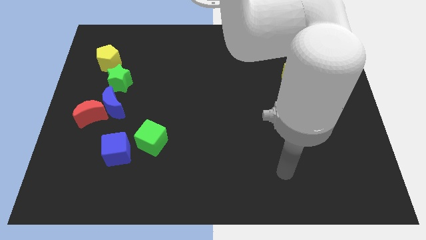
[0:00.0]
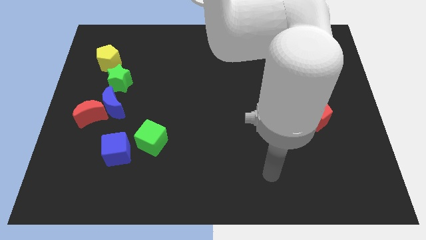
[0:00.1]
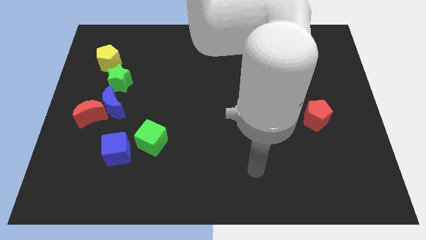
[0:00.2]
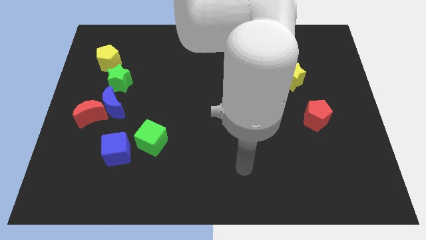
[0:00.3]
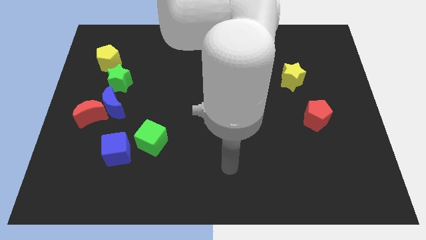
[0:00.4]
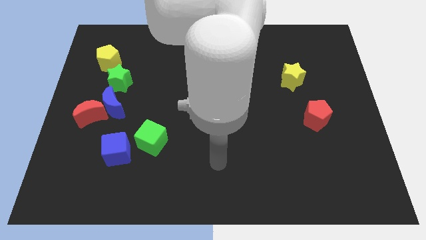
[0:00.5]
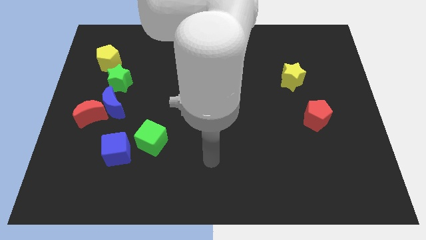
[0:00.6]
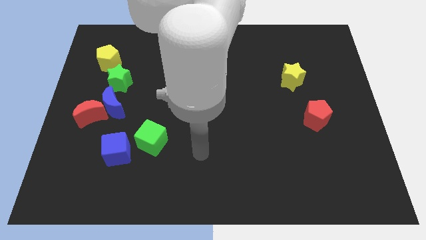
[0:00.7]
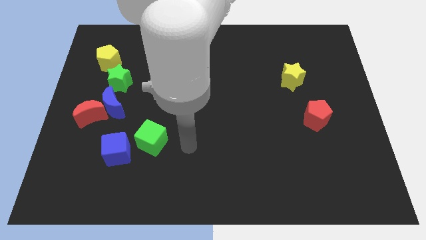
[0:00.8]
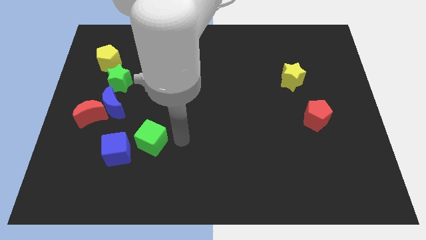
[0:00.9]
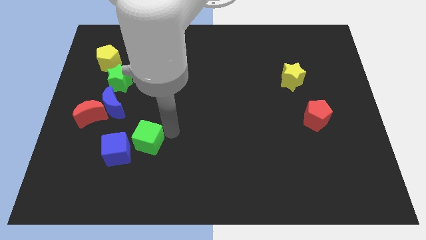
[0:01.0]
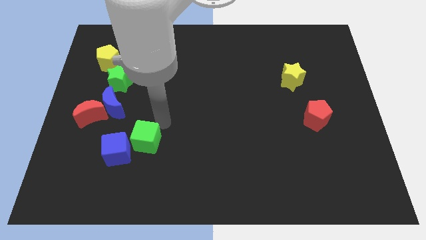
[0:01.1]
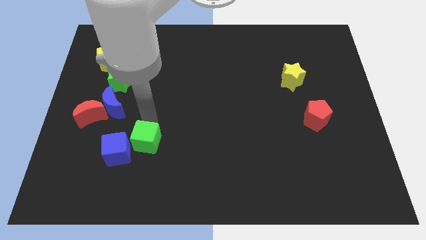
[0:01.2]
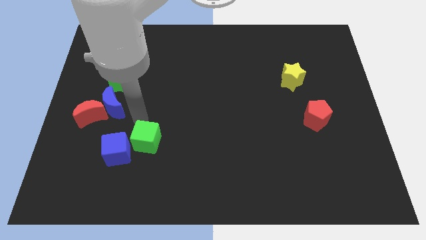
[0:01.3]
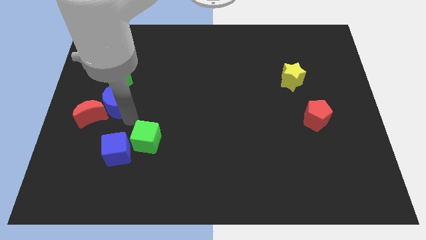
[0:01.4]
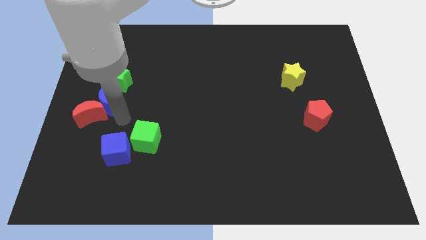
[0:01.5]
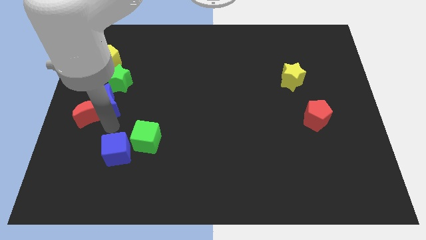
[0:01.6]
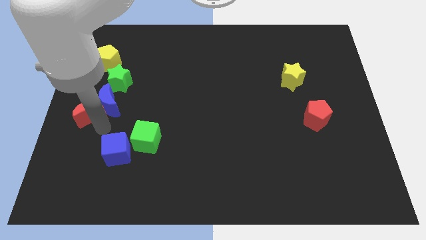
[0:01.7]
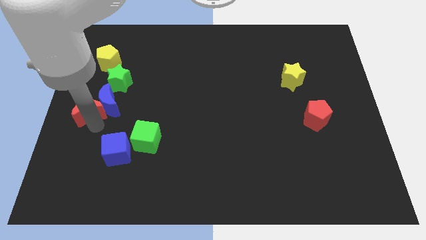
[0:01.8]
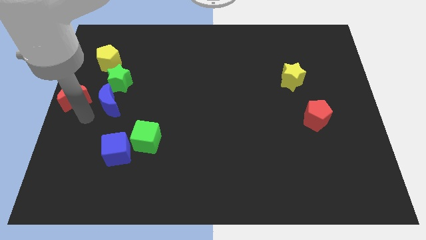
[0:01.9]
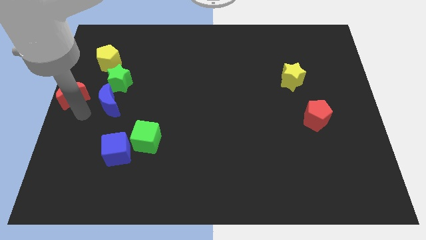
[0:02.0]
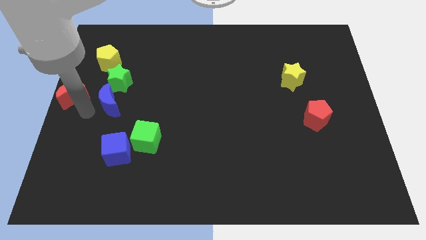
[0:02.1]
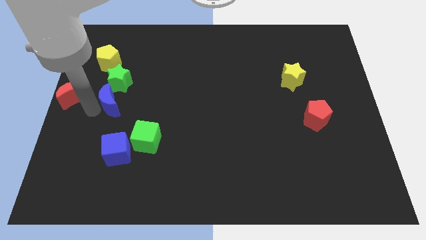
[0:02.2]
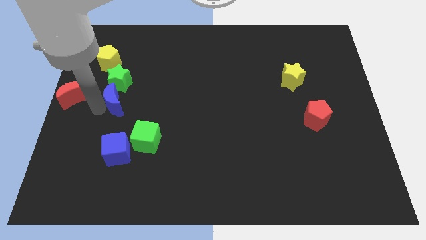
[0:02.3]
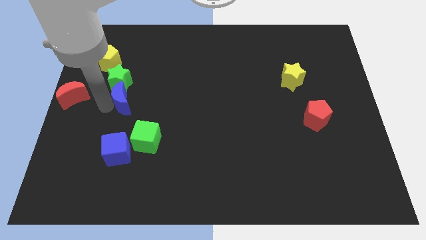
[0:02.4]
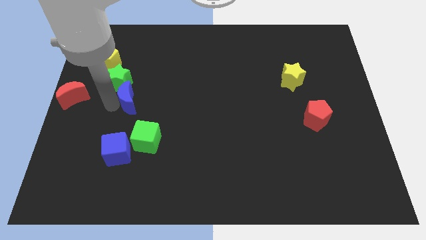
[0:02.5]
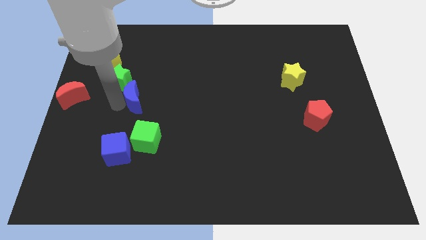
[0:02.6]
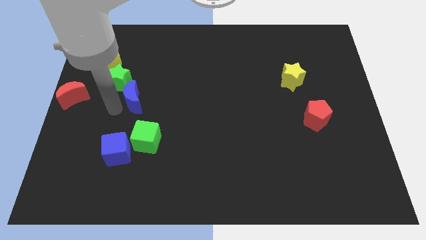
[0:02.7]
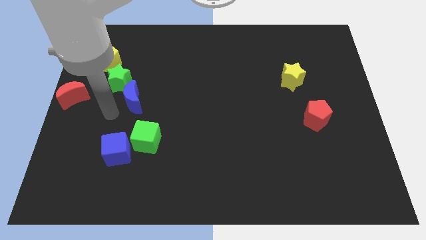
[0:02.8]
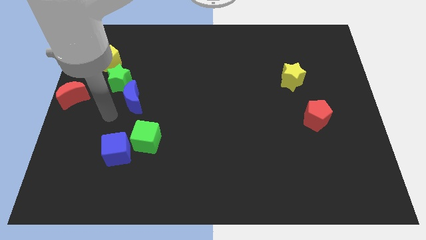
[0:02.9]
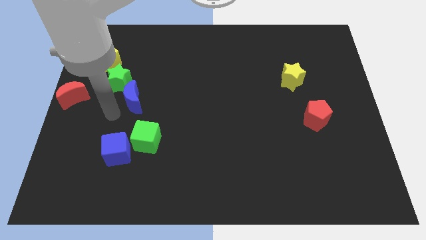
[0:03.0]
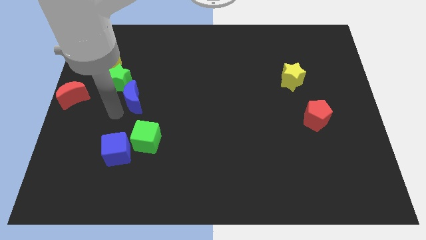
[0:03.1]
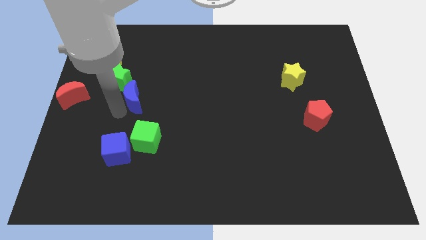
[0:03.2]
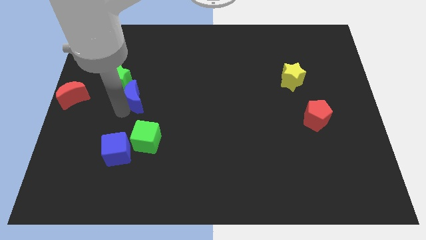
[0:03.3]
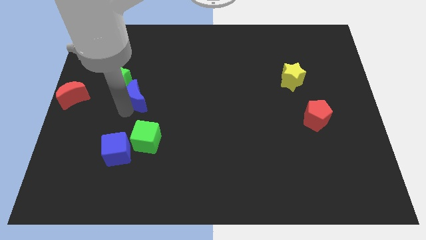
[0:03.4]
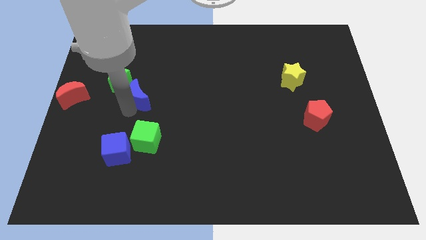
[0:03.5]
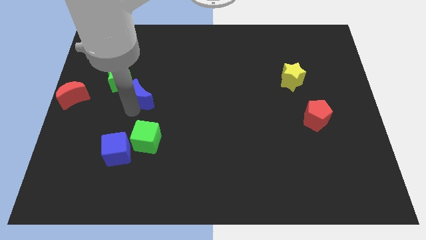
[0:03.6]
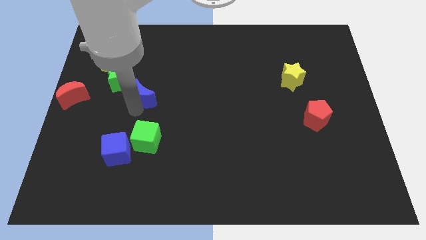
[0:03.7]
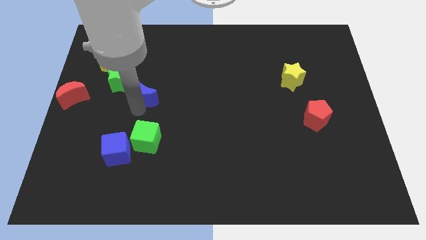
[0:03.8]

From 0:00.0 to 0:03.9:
move the blue moon up and then right somewhat

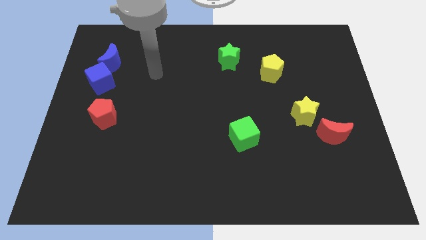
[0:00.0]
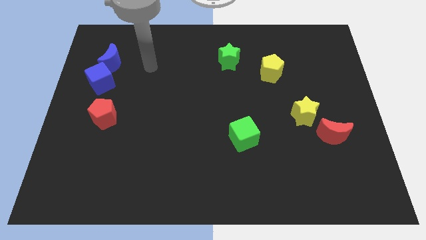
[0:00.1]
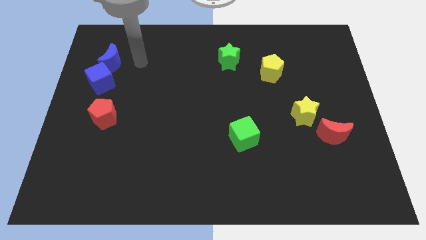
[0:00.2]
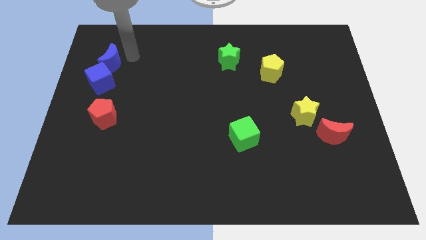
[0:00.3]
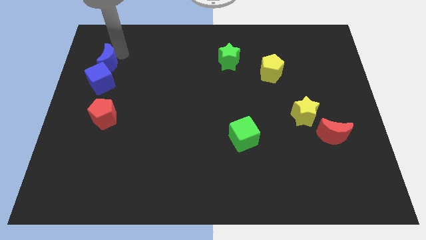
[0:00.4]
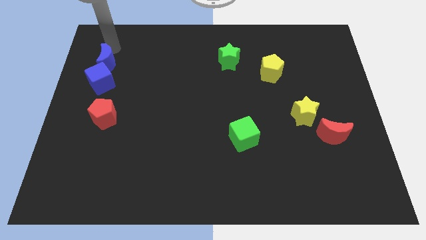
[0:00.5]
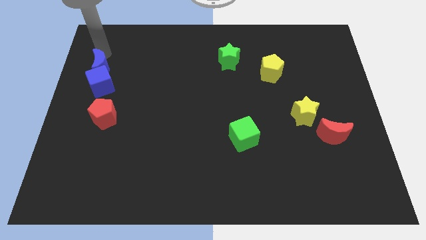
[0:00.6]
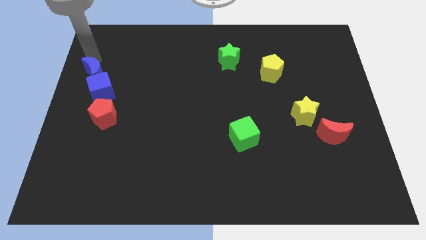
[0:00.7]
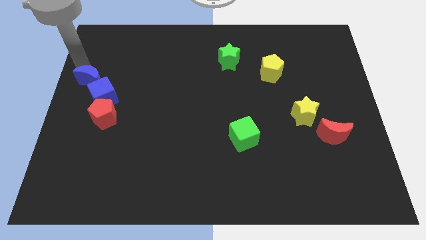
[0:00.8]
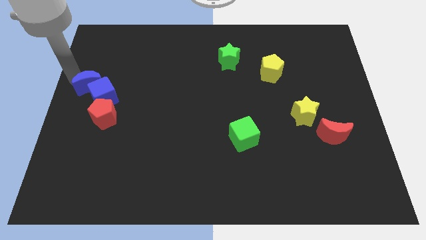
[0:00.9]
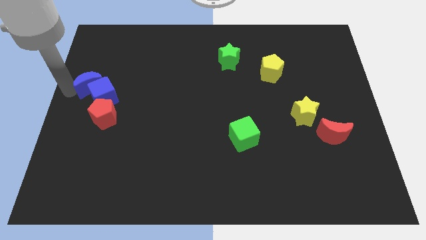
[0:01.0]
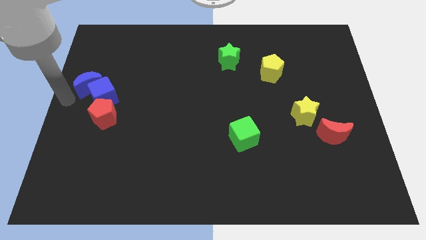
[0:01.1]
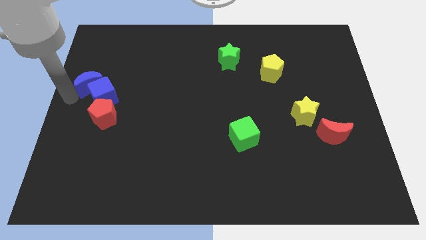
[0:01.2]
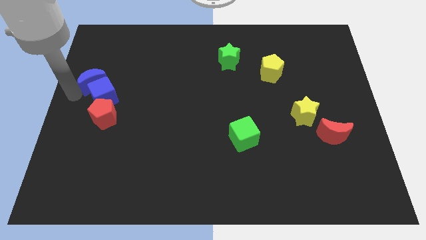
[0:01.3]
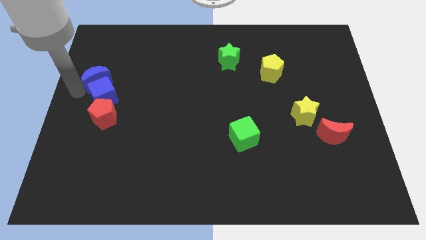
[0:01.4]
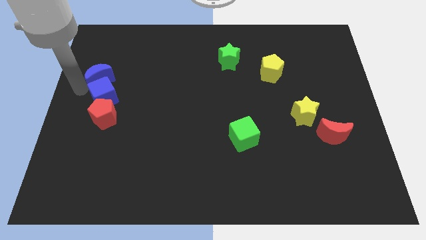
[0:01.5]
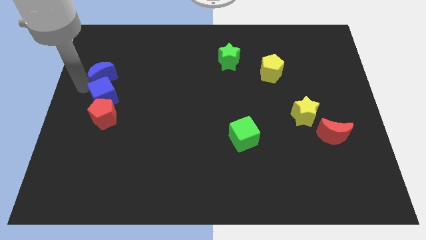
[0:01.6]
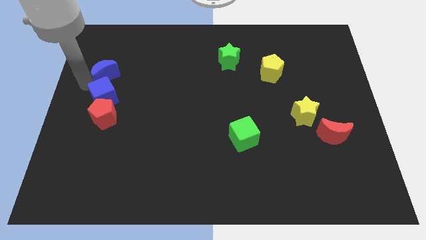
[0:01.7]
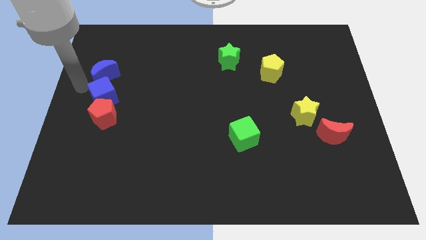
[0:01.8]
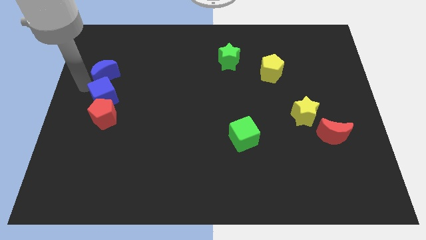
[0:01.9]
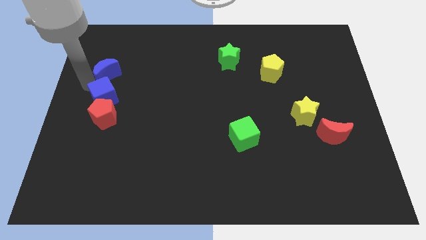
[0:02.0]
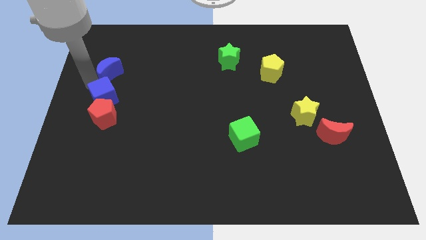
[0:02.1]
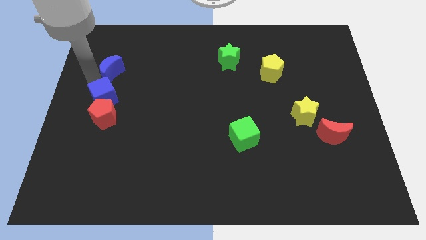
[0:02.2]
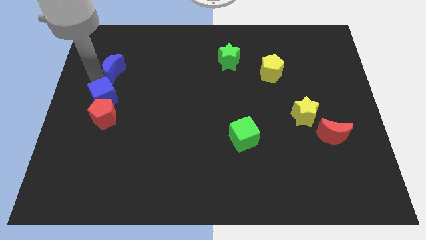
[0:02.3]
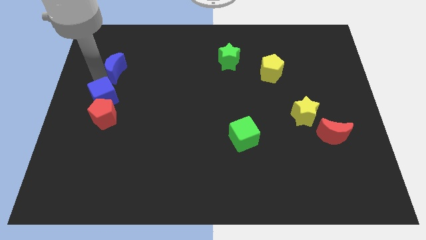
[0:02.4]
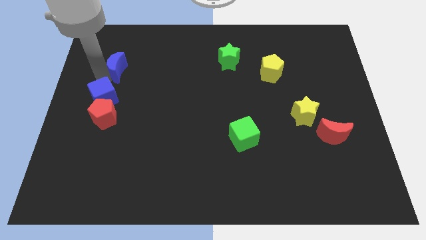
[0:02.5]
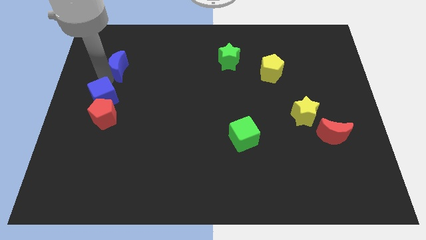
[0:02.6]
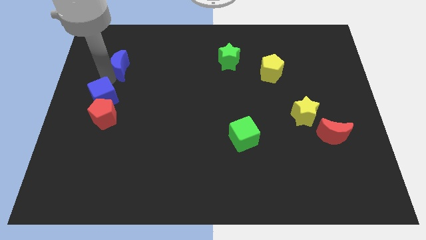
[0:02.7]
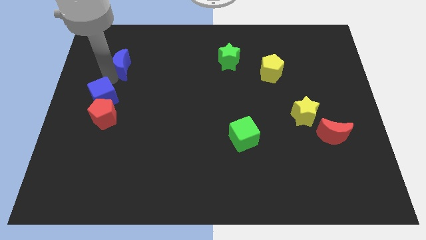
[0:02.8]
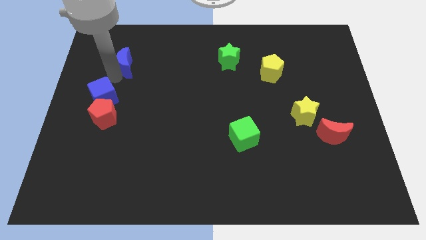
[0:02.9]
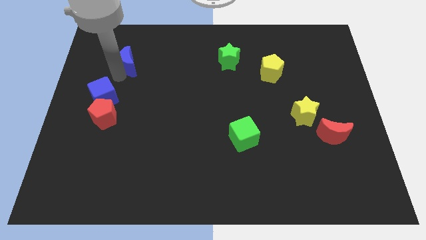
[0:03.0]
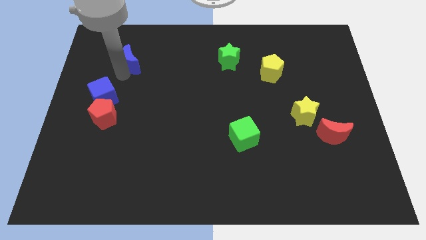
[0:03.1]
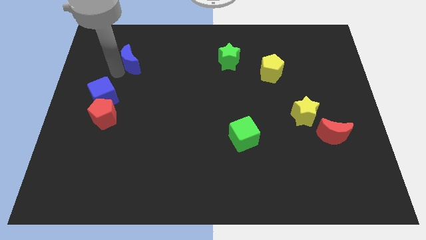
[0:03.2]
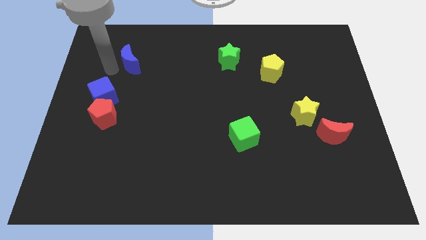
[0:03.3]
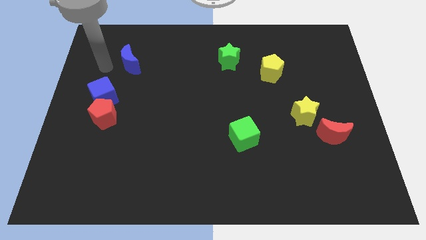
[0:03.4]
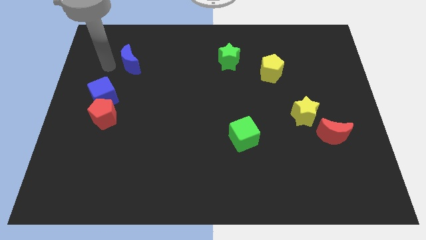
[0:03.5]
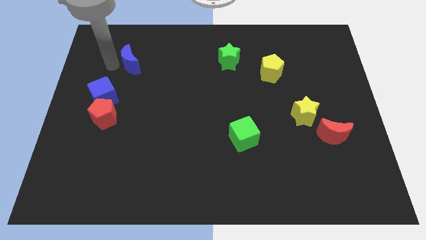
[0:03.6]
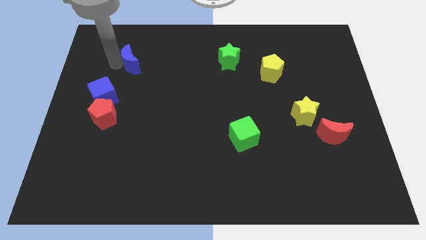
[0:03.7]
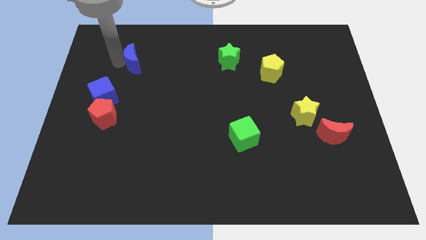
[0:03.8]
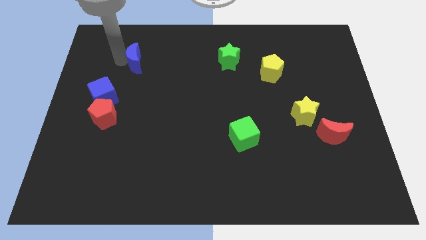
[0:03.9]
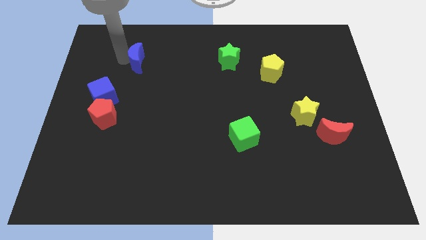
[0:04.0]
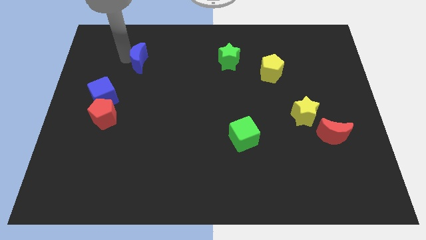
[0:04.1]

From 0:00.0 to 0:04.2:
slightly move the blue moon right
